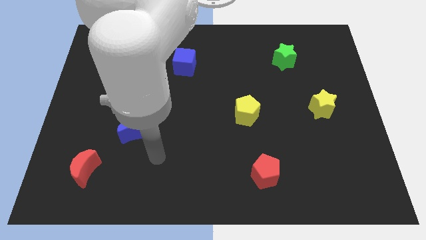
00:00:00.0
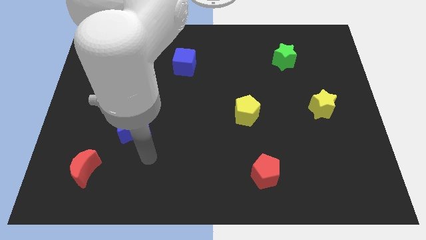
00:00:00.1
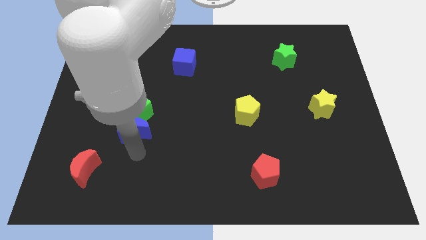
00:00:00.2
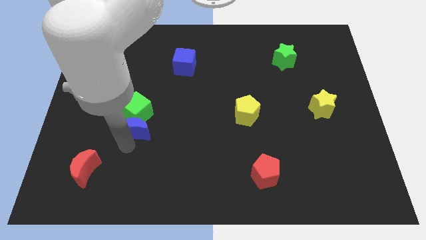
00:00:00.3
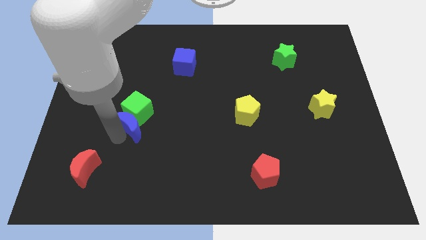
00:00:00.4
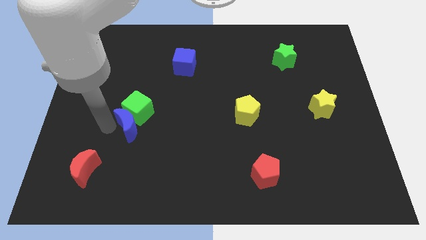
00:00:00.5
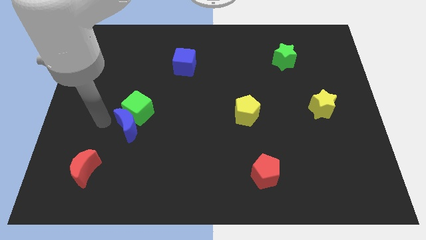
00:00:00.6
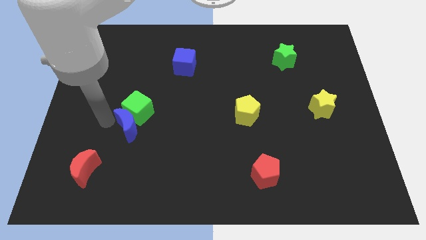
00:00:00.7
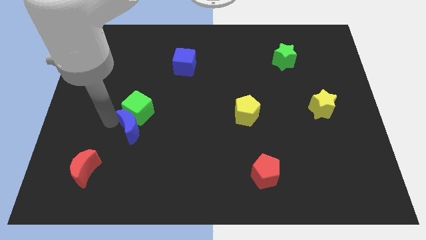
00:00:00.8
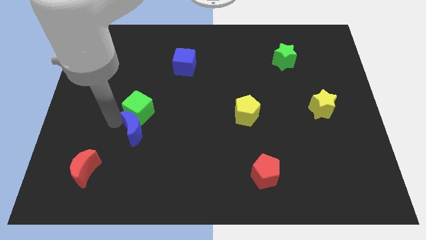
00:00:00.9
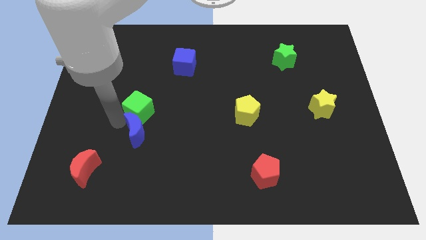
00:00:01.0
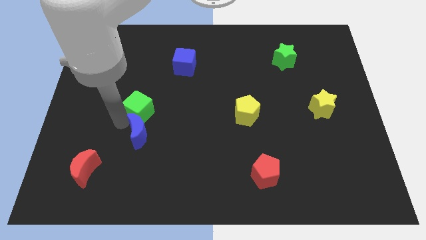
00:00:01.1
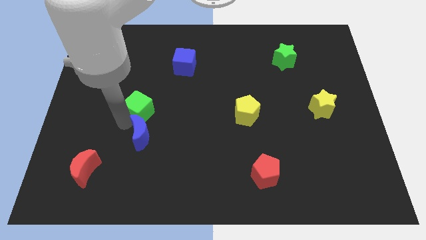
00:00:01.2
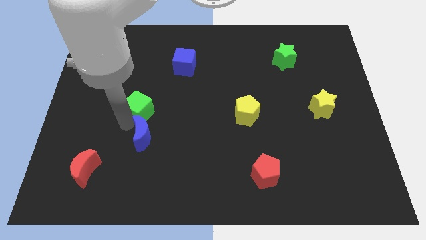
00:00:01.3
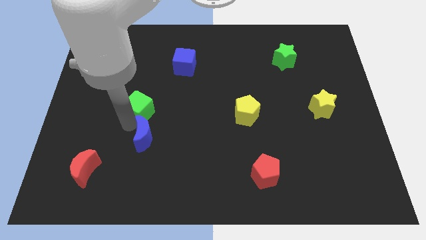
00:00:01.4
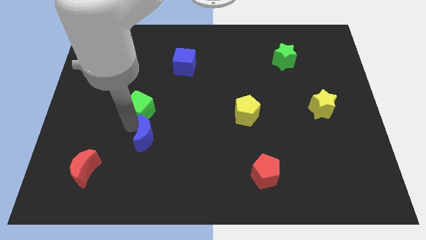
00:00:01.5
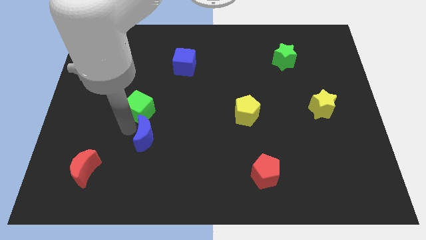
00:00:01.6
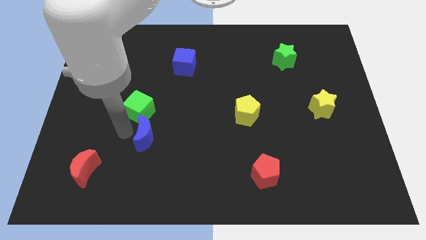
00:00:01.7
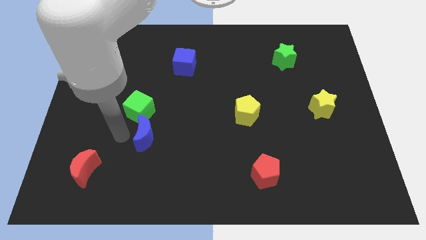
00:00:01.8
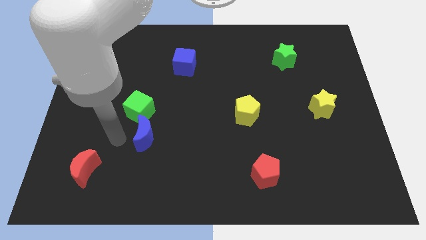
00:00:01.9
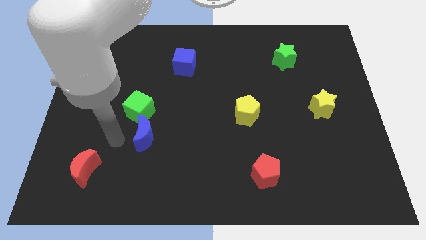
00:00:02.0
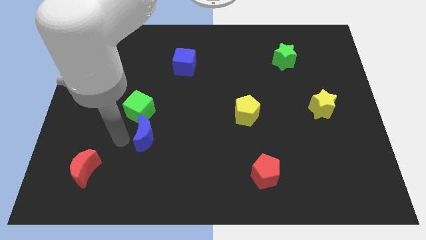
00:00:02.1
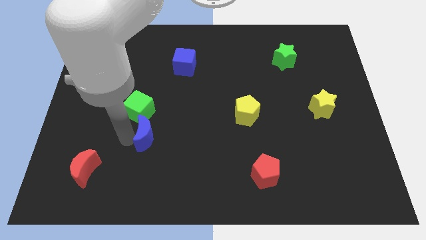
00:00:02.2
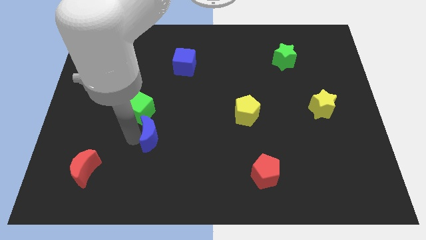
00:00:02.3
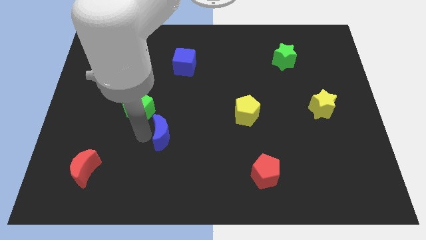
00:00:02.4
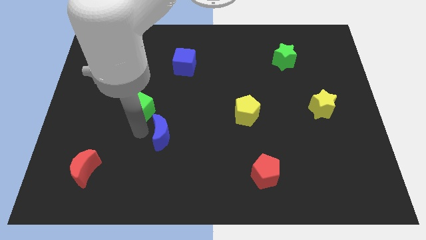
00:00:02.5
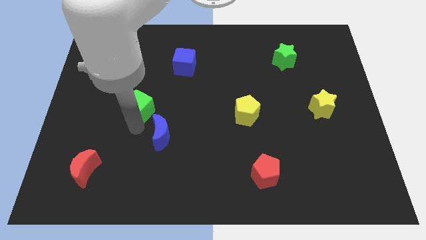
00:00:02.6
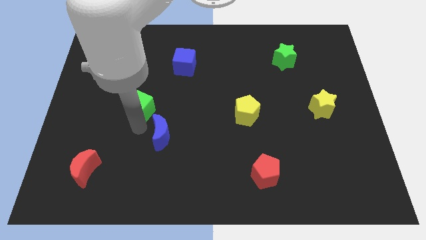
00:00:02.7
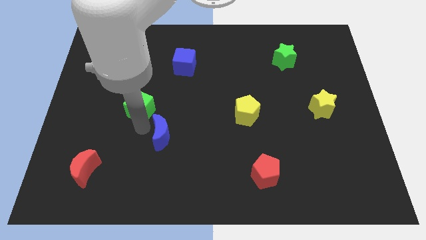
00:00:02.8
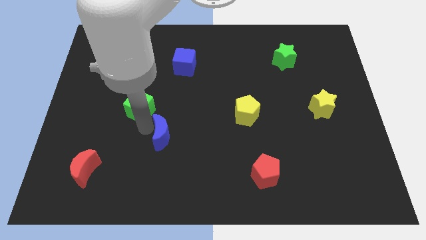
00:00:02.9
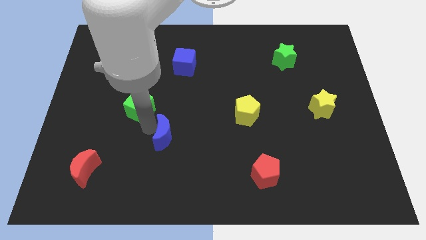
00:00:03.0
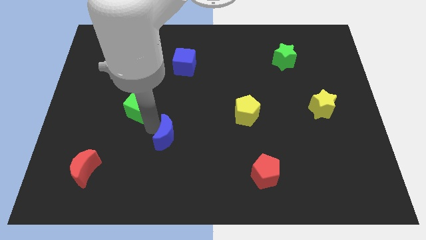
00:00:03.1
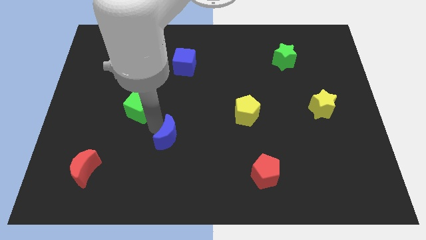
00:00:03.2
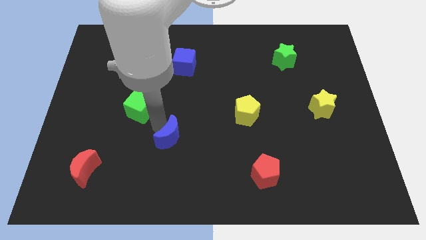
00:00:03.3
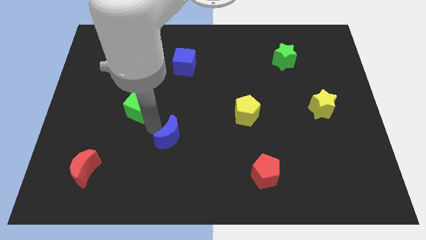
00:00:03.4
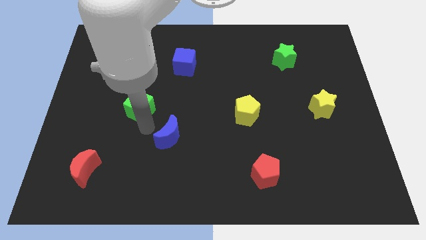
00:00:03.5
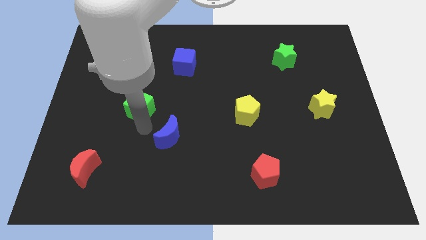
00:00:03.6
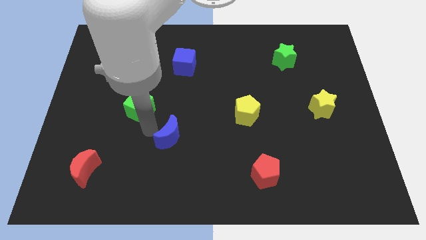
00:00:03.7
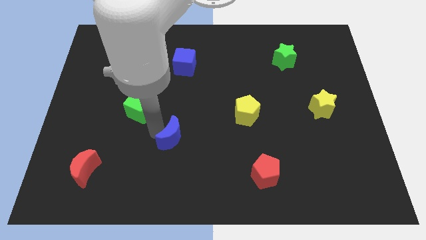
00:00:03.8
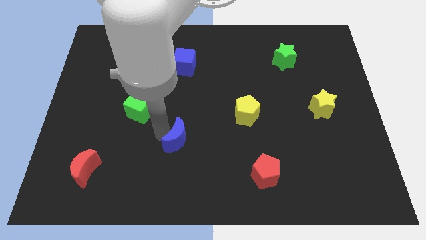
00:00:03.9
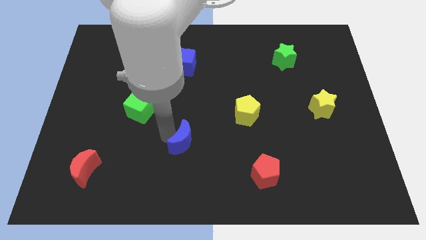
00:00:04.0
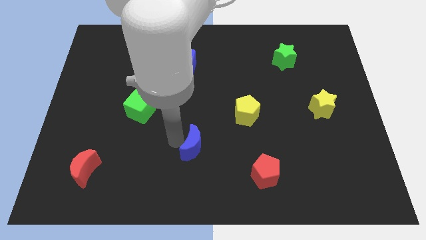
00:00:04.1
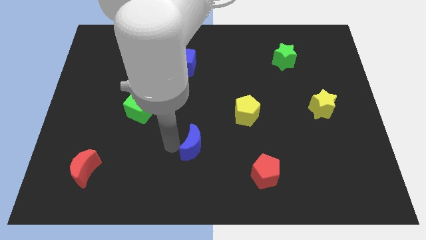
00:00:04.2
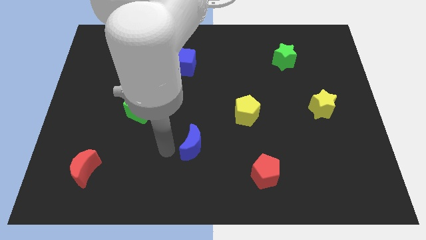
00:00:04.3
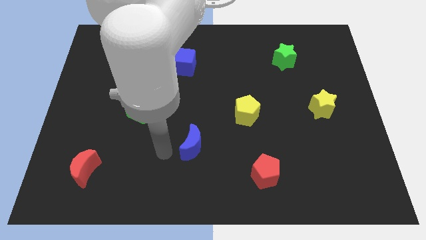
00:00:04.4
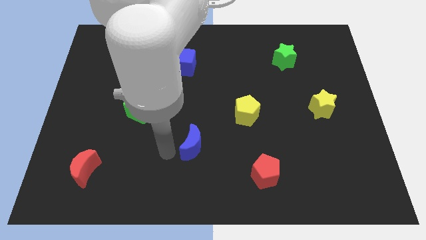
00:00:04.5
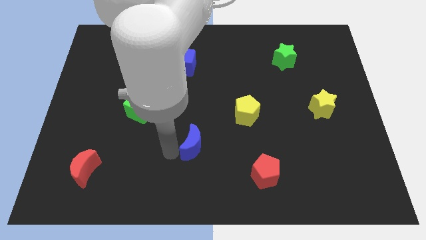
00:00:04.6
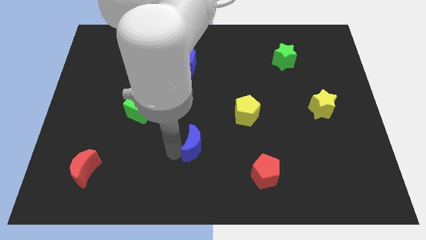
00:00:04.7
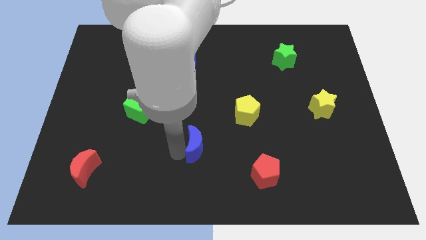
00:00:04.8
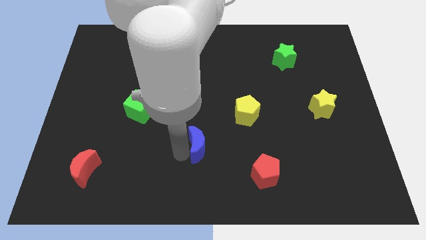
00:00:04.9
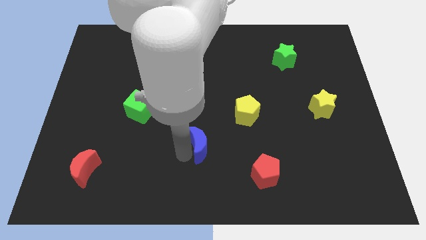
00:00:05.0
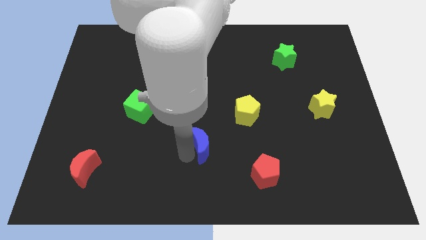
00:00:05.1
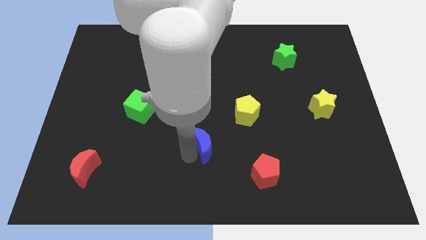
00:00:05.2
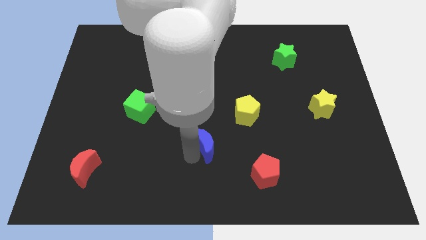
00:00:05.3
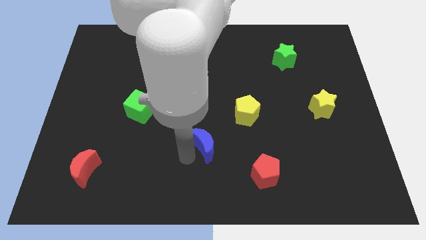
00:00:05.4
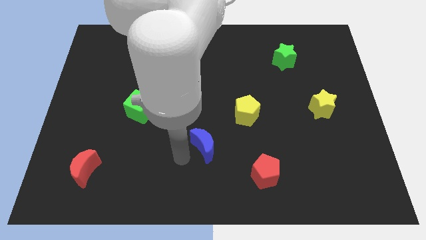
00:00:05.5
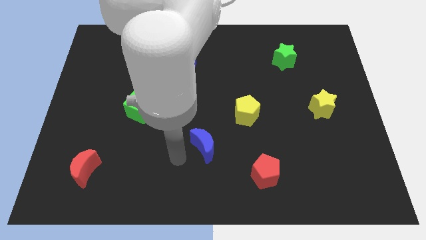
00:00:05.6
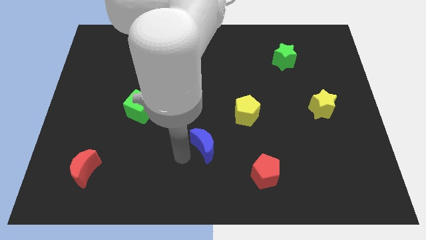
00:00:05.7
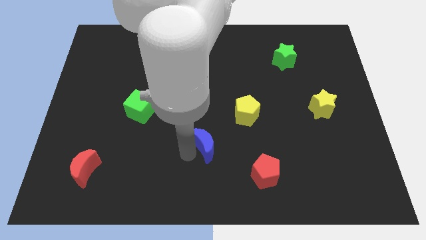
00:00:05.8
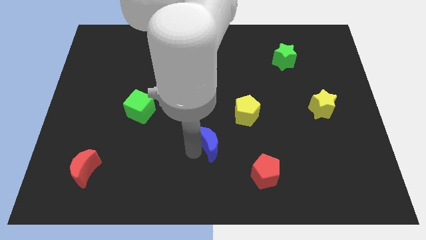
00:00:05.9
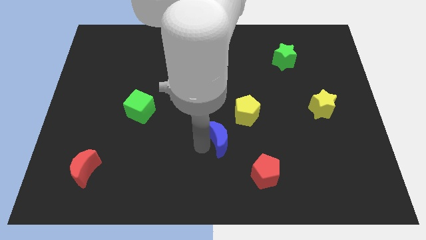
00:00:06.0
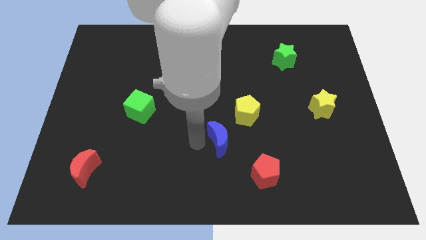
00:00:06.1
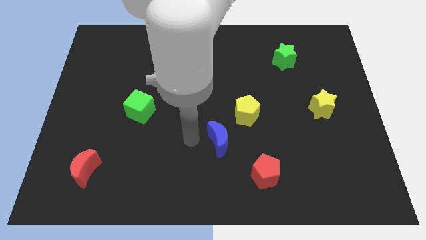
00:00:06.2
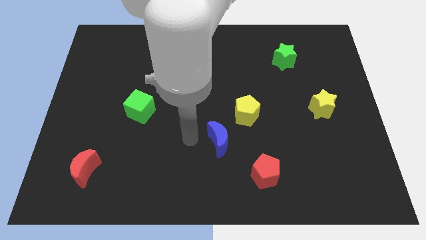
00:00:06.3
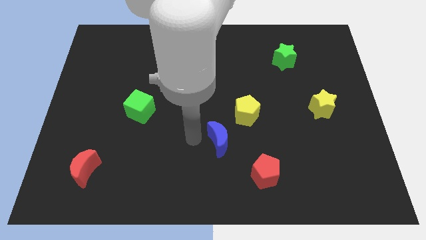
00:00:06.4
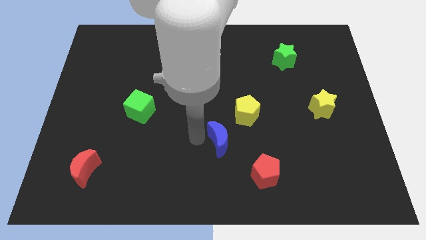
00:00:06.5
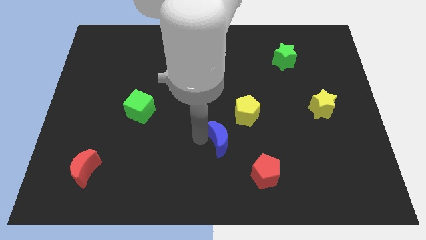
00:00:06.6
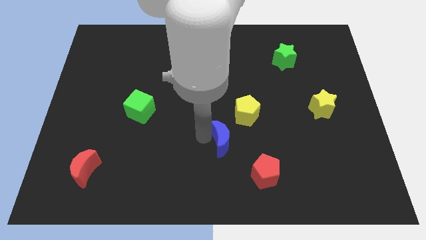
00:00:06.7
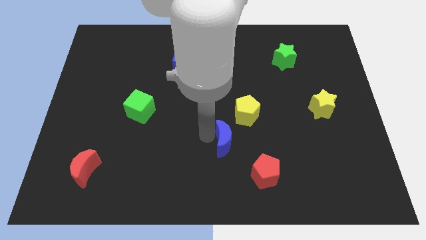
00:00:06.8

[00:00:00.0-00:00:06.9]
push the blue moon to the right

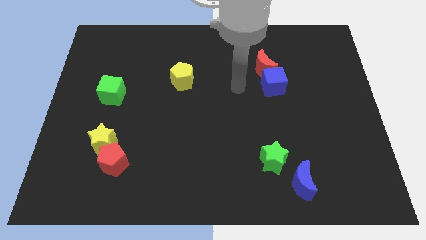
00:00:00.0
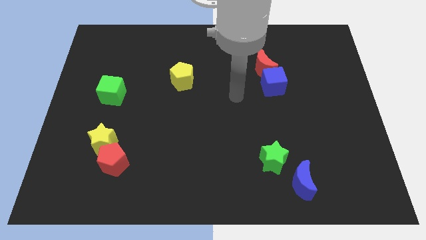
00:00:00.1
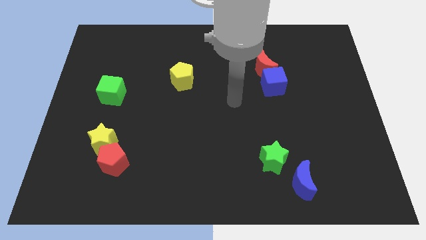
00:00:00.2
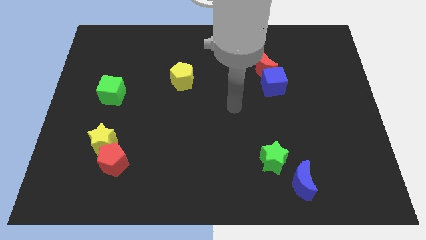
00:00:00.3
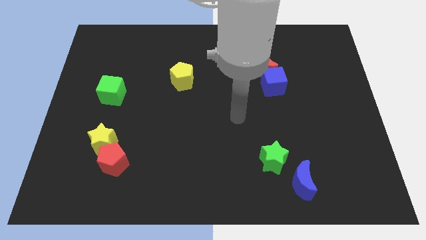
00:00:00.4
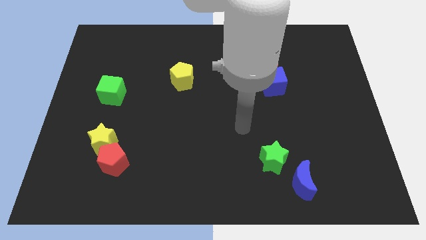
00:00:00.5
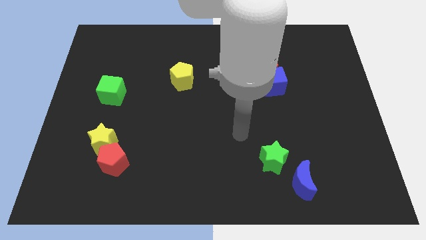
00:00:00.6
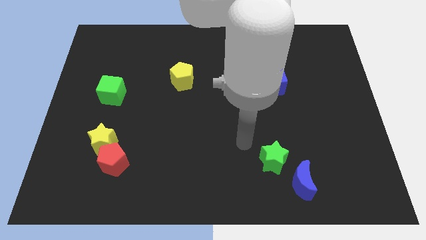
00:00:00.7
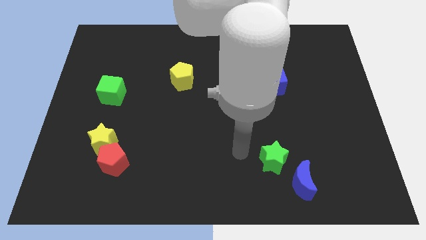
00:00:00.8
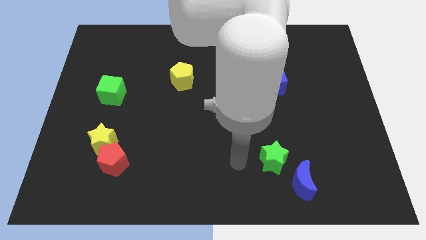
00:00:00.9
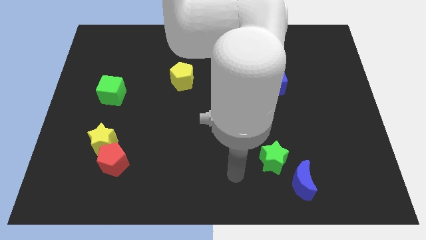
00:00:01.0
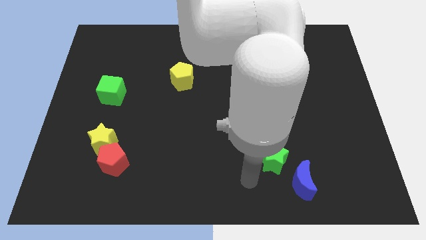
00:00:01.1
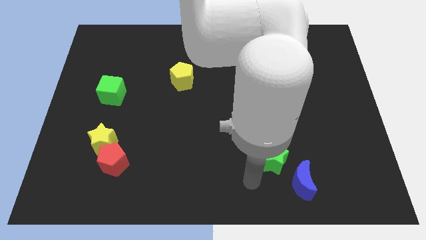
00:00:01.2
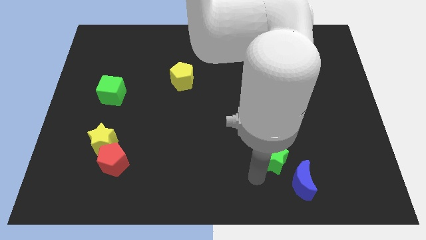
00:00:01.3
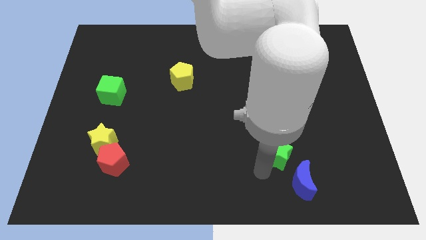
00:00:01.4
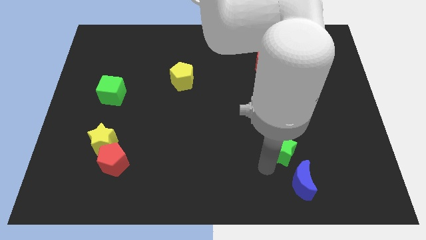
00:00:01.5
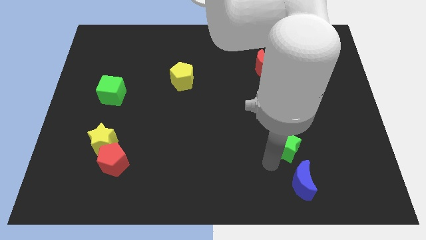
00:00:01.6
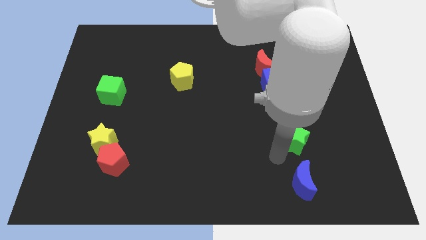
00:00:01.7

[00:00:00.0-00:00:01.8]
slide the green star upwards and right somewhat
